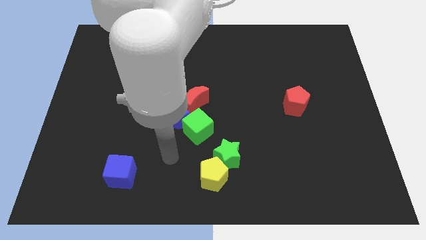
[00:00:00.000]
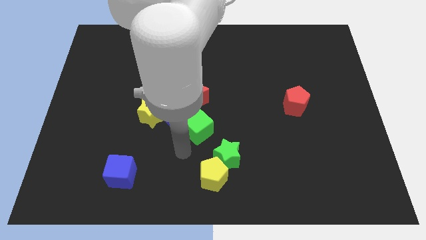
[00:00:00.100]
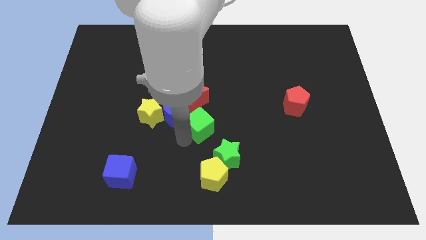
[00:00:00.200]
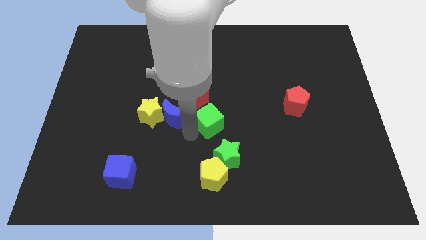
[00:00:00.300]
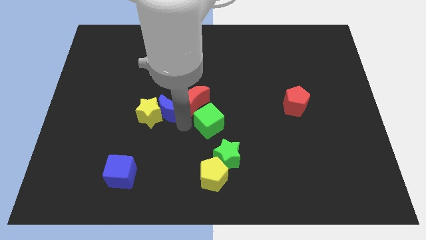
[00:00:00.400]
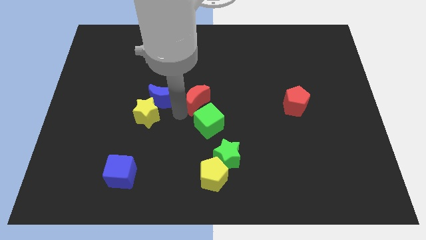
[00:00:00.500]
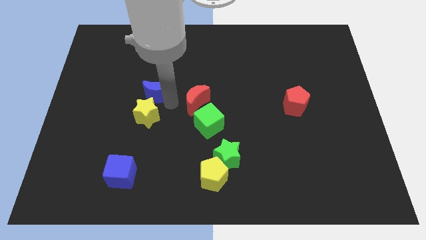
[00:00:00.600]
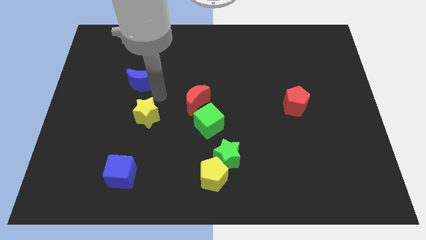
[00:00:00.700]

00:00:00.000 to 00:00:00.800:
separate the yellow star from the blue moon

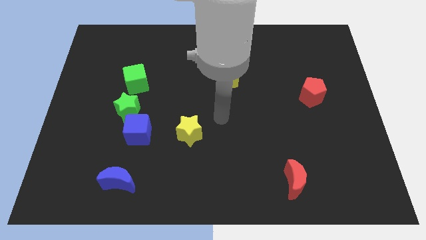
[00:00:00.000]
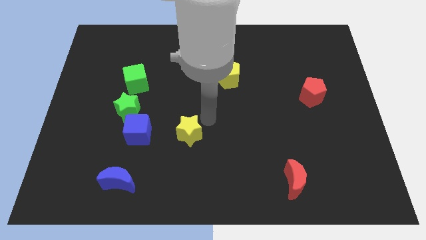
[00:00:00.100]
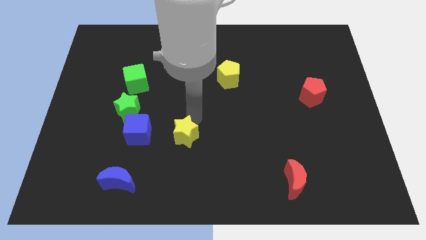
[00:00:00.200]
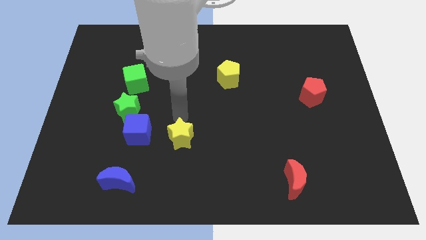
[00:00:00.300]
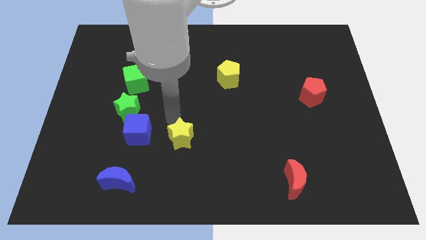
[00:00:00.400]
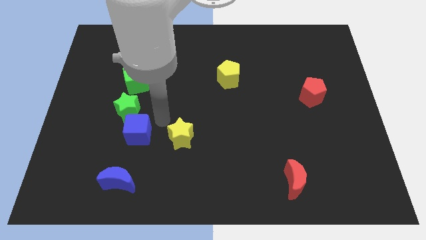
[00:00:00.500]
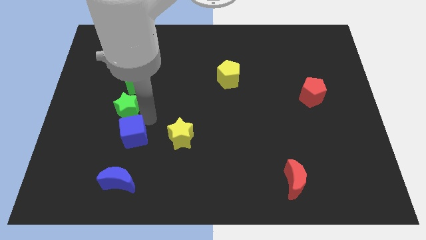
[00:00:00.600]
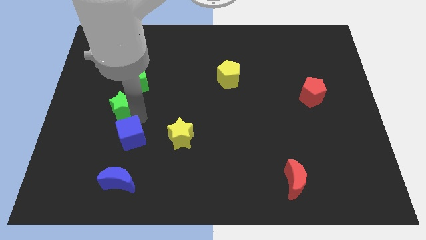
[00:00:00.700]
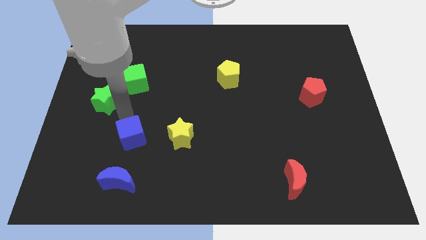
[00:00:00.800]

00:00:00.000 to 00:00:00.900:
move the blue cube away from the green star

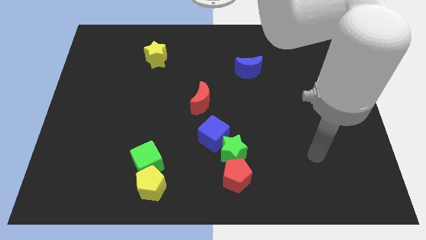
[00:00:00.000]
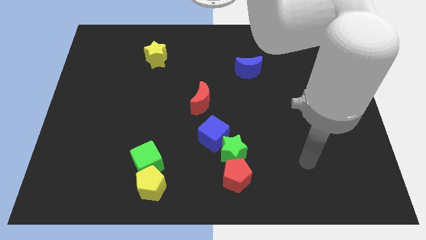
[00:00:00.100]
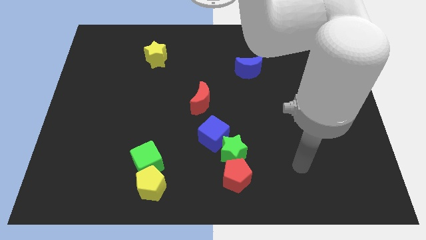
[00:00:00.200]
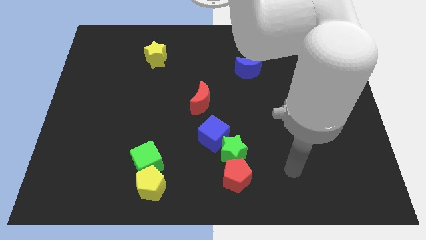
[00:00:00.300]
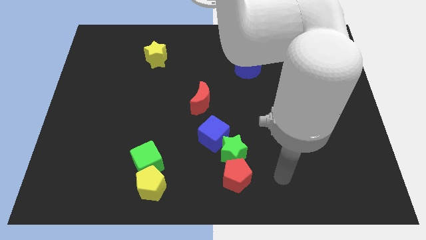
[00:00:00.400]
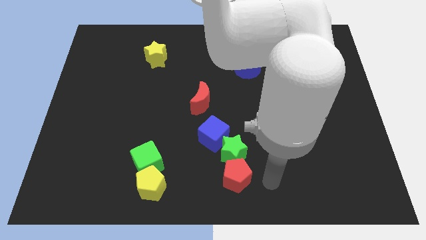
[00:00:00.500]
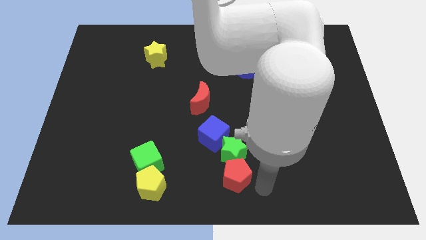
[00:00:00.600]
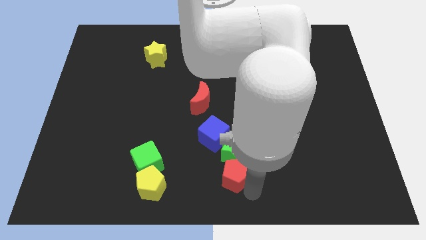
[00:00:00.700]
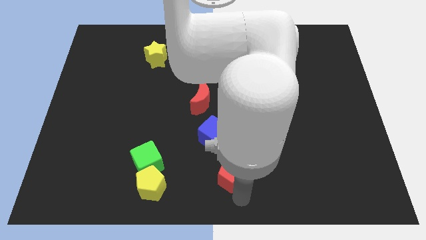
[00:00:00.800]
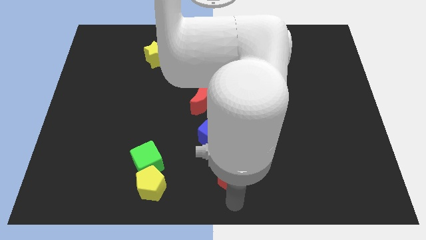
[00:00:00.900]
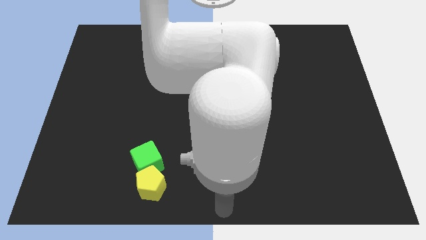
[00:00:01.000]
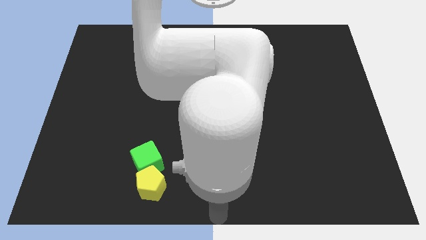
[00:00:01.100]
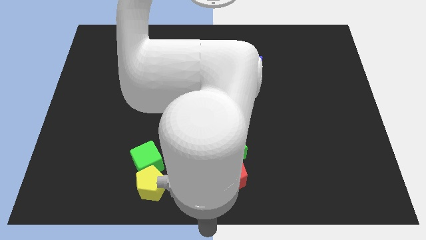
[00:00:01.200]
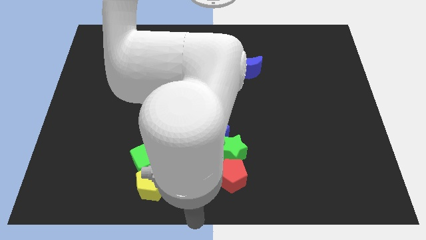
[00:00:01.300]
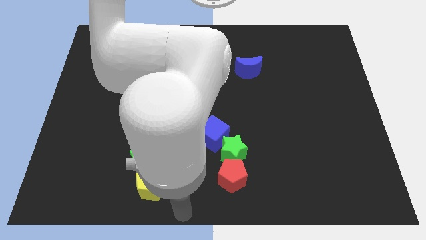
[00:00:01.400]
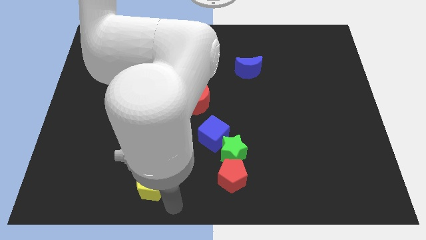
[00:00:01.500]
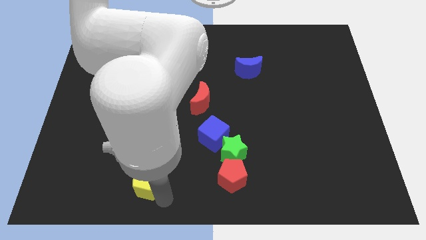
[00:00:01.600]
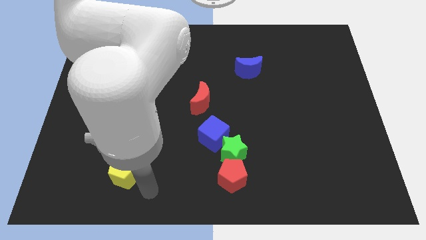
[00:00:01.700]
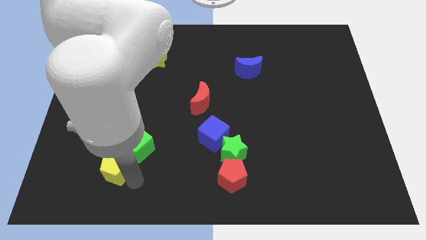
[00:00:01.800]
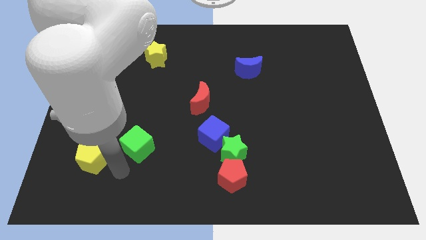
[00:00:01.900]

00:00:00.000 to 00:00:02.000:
pull the green cube apart from the yellow pentagon

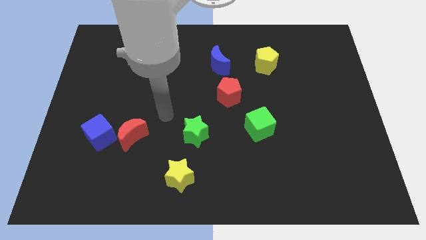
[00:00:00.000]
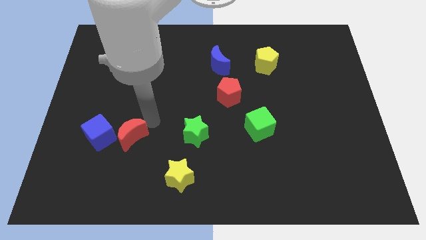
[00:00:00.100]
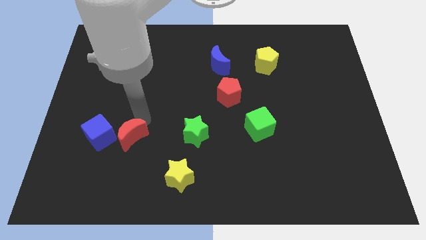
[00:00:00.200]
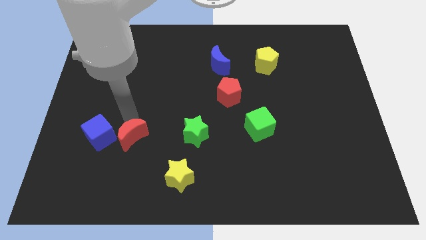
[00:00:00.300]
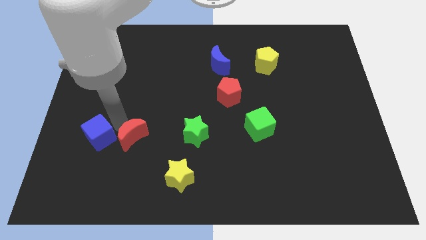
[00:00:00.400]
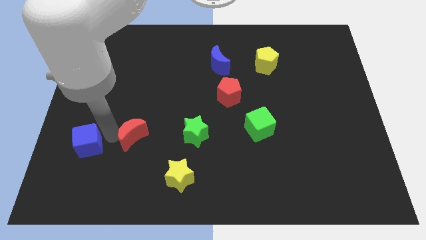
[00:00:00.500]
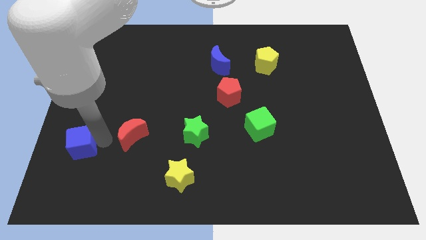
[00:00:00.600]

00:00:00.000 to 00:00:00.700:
pull the red moon apart from the blue cube

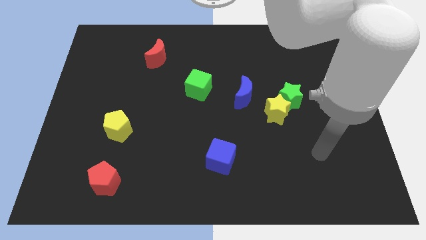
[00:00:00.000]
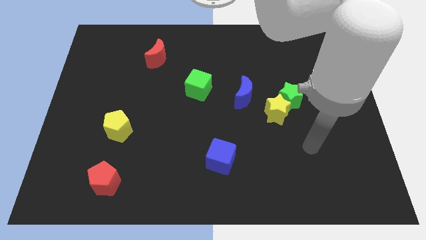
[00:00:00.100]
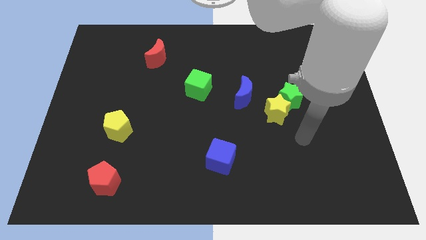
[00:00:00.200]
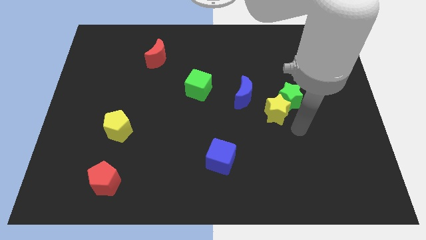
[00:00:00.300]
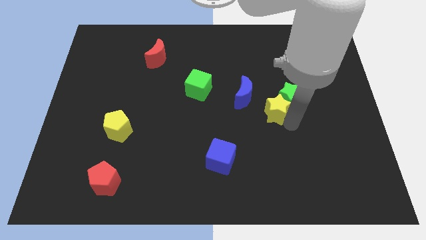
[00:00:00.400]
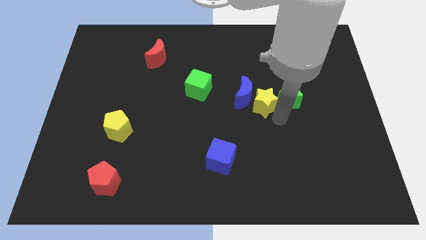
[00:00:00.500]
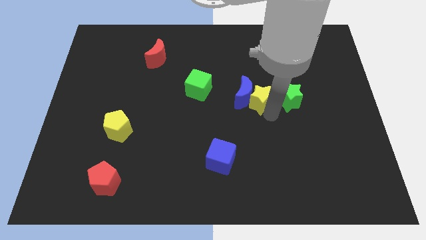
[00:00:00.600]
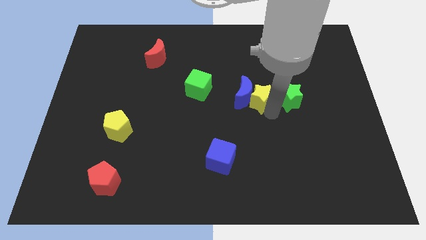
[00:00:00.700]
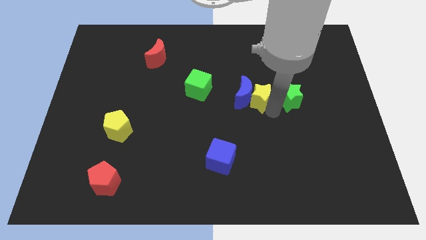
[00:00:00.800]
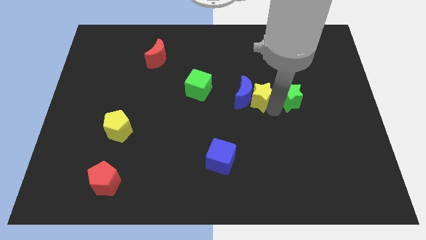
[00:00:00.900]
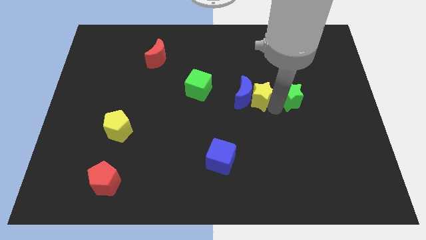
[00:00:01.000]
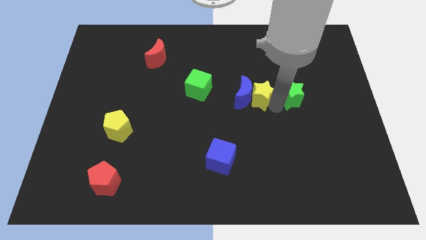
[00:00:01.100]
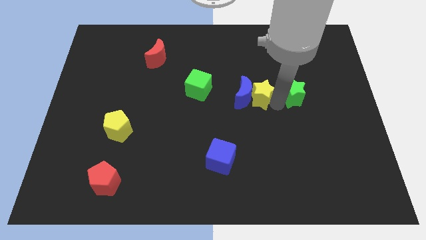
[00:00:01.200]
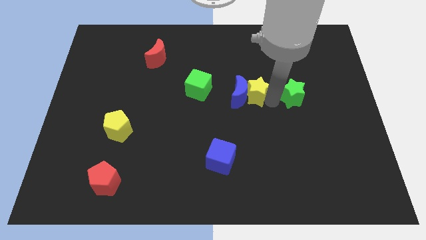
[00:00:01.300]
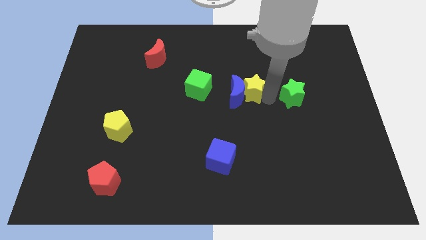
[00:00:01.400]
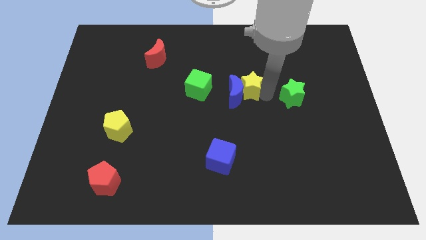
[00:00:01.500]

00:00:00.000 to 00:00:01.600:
separate the green star from the yellow star

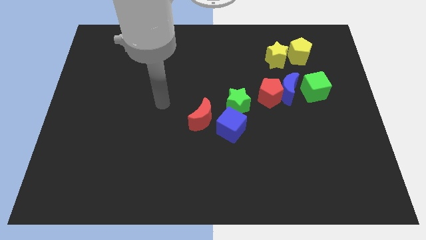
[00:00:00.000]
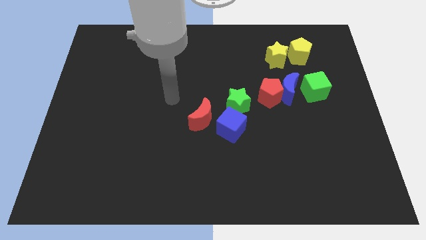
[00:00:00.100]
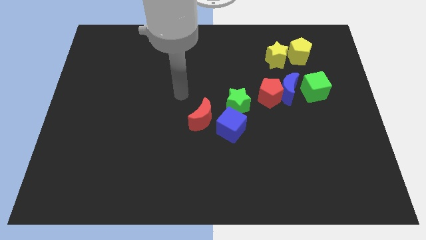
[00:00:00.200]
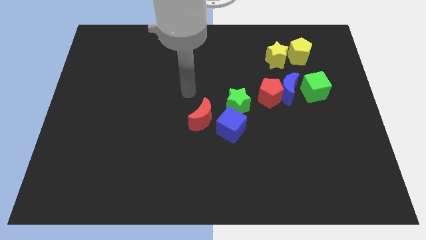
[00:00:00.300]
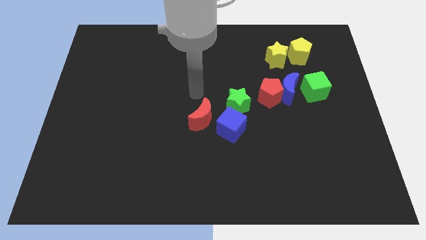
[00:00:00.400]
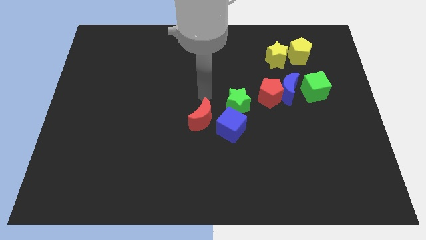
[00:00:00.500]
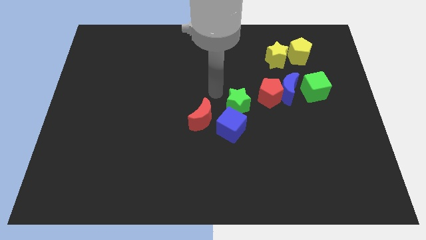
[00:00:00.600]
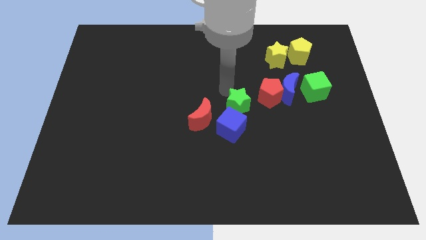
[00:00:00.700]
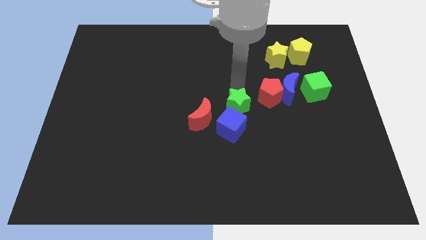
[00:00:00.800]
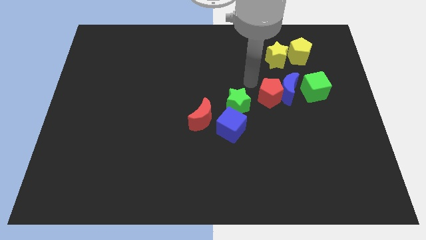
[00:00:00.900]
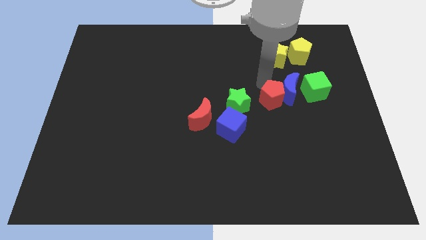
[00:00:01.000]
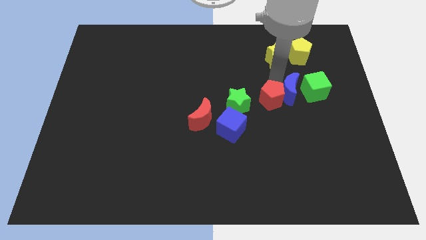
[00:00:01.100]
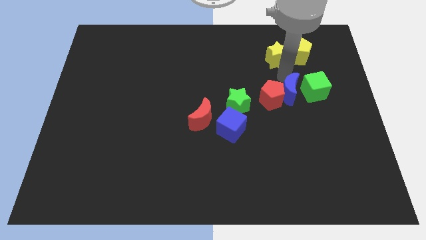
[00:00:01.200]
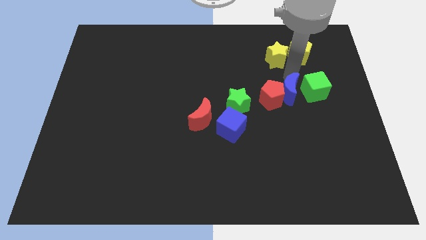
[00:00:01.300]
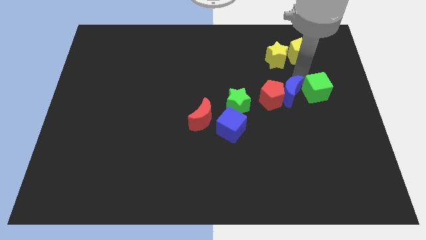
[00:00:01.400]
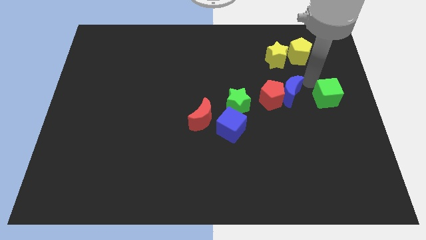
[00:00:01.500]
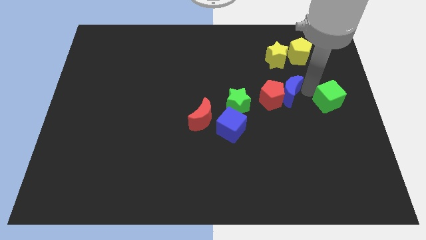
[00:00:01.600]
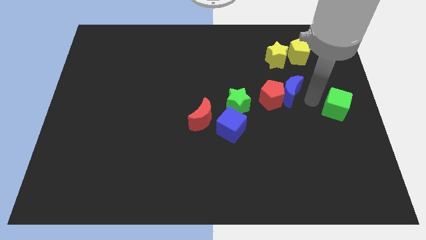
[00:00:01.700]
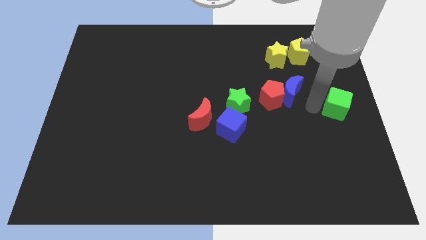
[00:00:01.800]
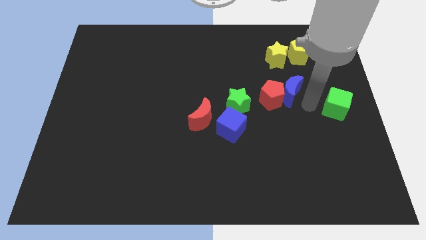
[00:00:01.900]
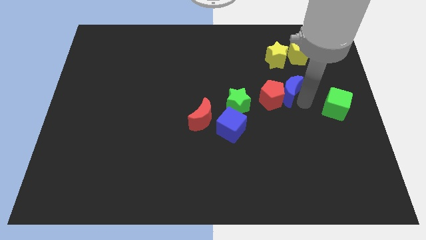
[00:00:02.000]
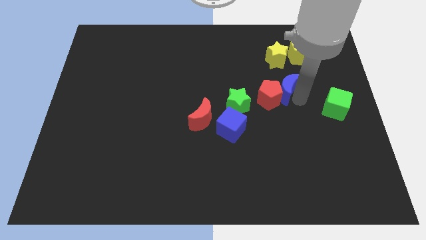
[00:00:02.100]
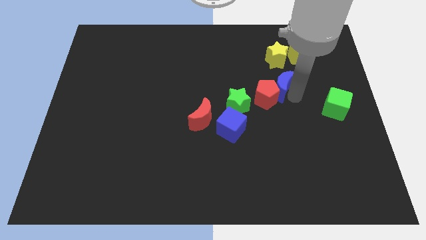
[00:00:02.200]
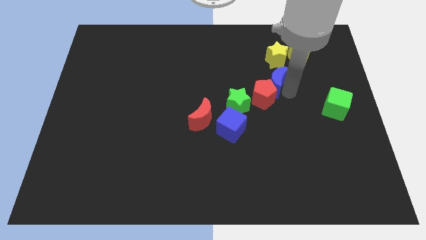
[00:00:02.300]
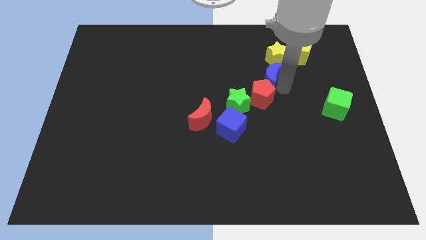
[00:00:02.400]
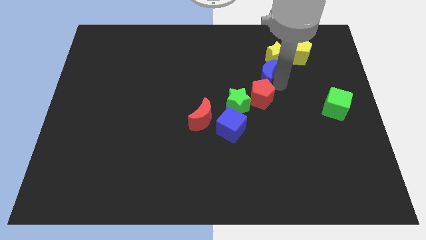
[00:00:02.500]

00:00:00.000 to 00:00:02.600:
separate the blue moon from the red pentagon and green cube

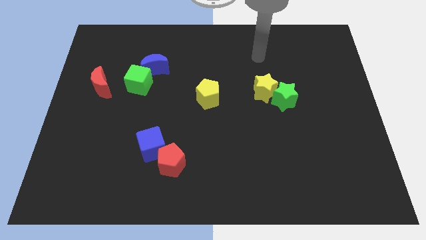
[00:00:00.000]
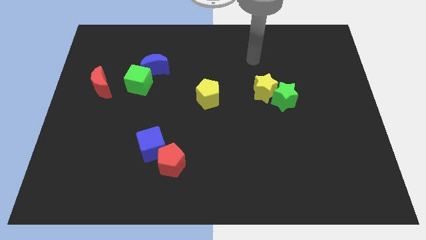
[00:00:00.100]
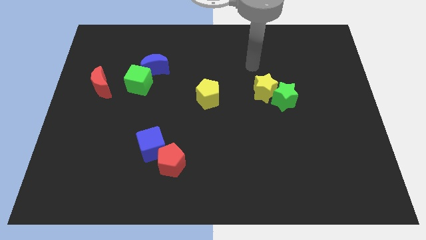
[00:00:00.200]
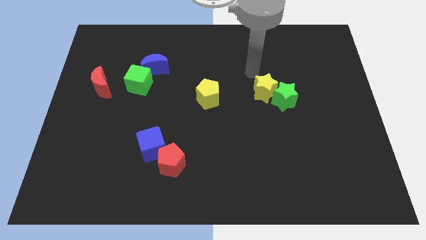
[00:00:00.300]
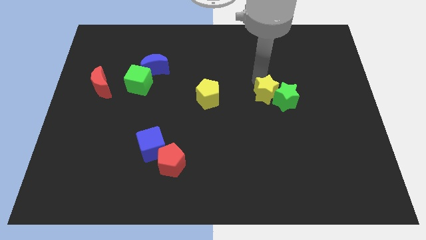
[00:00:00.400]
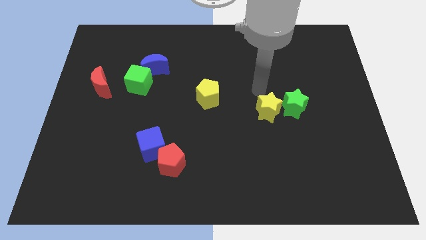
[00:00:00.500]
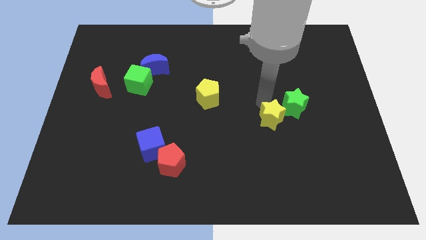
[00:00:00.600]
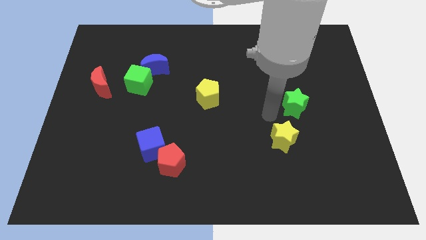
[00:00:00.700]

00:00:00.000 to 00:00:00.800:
pull the green star apart from the yellow star
